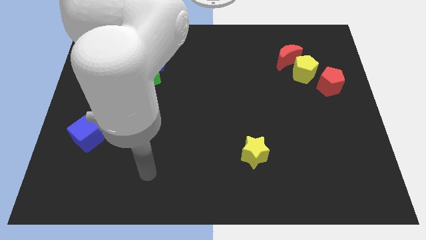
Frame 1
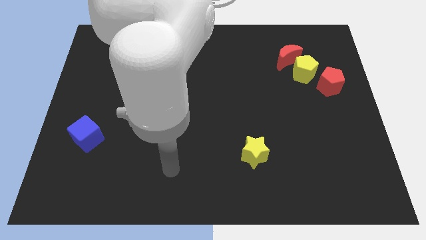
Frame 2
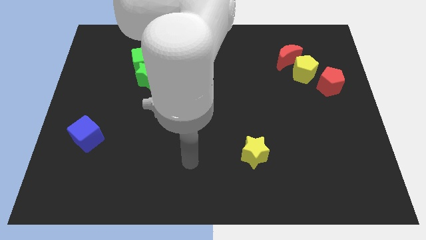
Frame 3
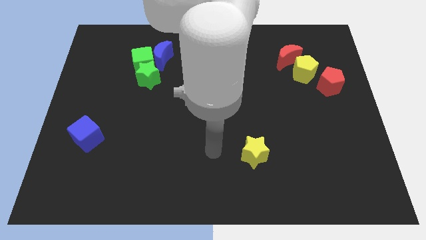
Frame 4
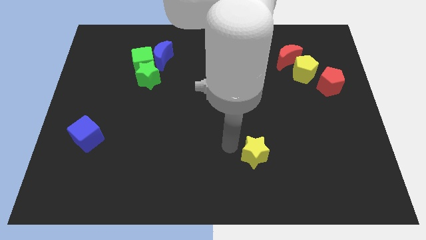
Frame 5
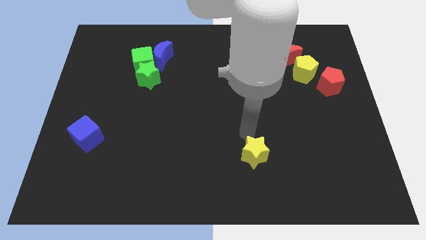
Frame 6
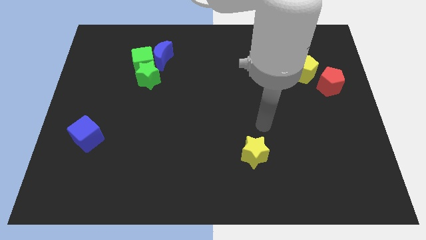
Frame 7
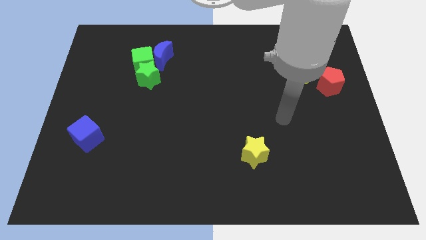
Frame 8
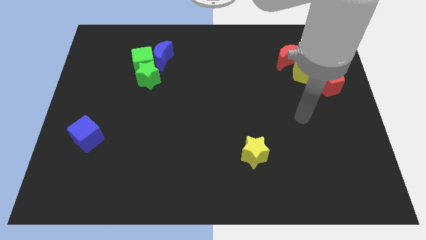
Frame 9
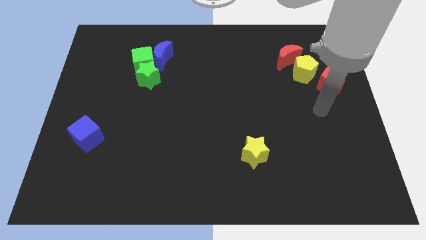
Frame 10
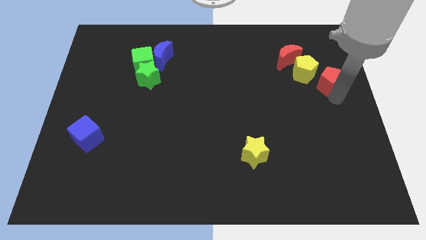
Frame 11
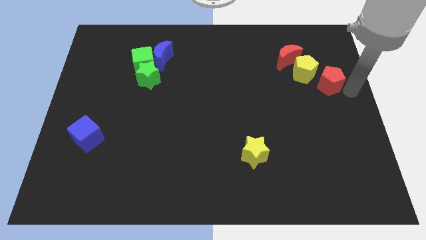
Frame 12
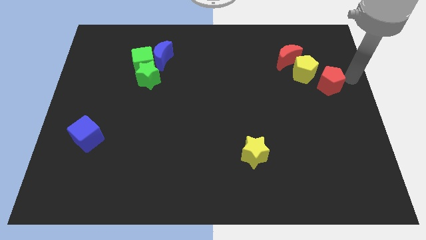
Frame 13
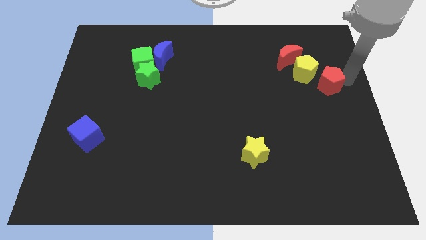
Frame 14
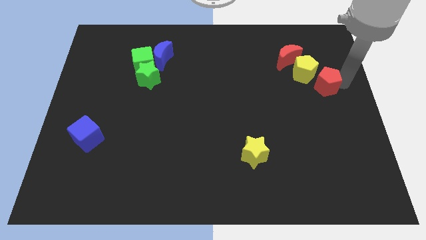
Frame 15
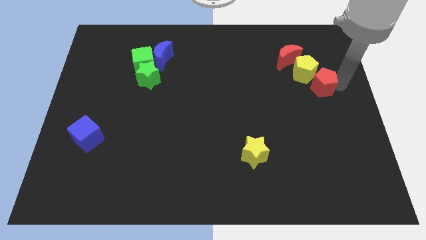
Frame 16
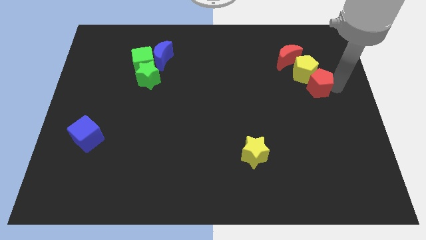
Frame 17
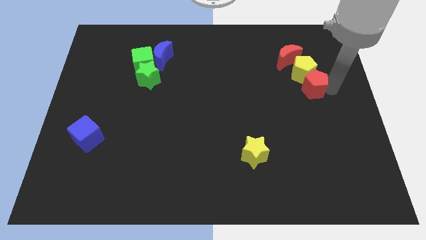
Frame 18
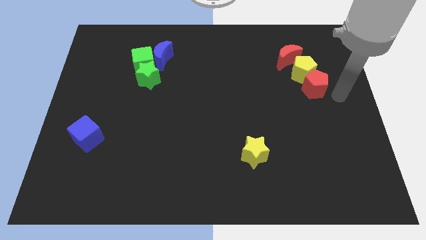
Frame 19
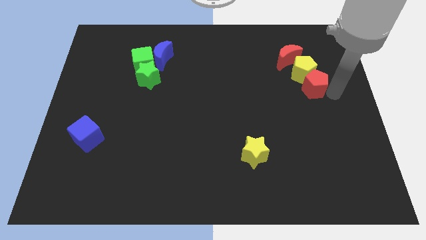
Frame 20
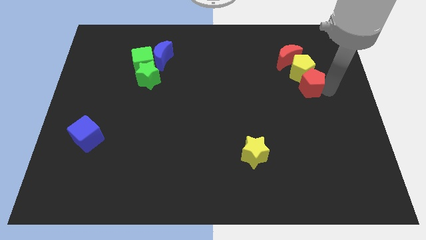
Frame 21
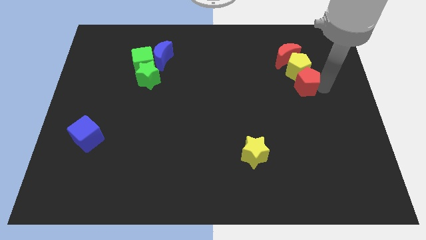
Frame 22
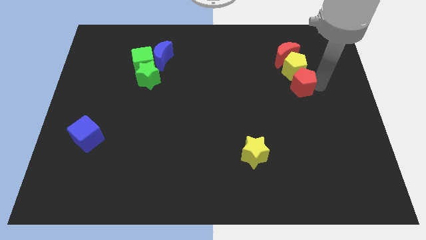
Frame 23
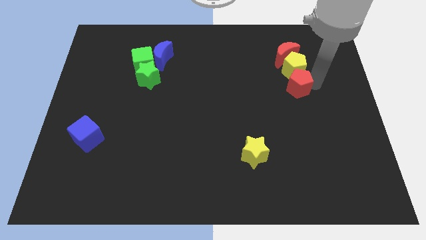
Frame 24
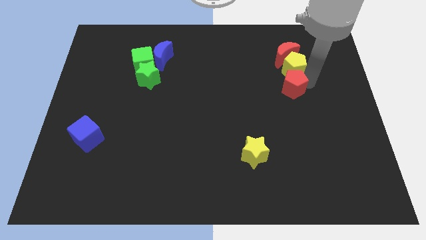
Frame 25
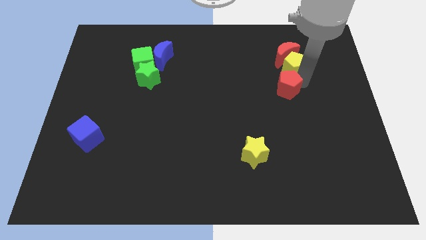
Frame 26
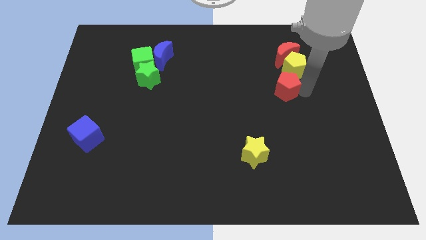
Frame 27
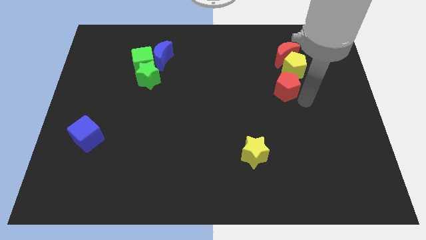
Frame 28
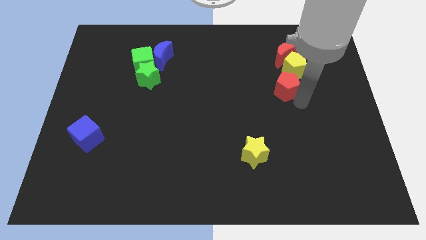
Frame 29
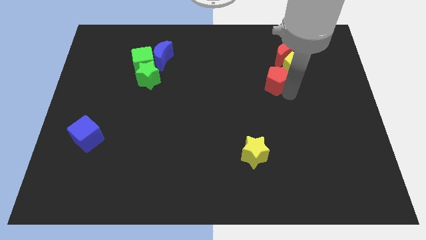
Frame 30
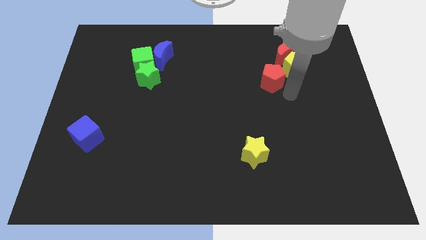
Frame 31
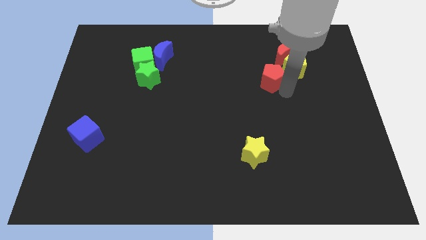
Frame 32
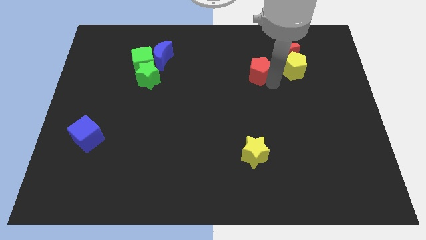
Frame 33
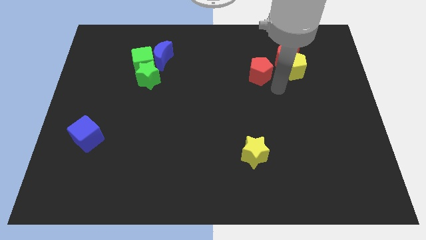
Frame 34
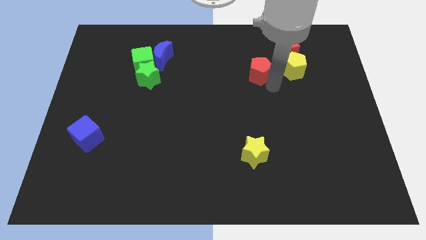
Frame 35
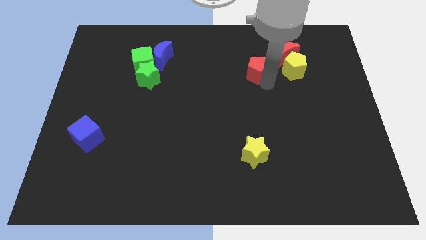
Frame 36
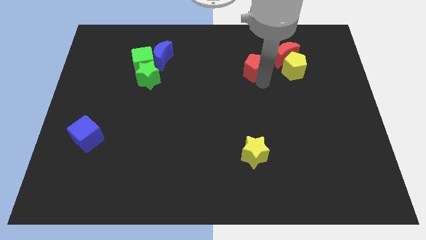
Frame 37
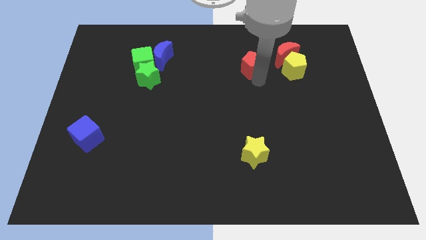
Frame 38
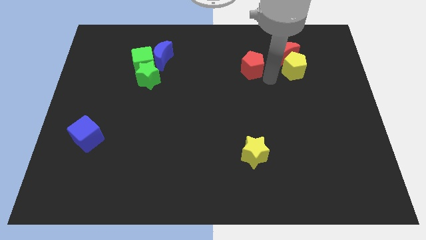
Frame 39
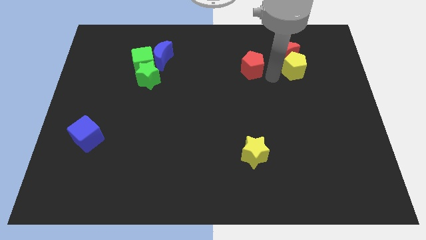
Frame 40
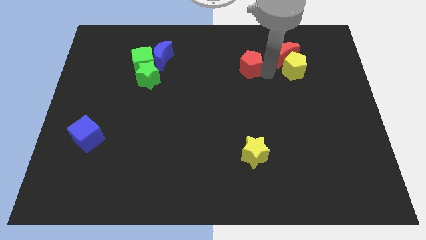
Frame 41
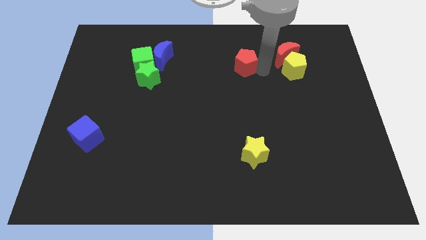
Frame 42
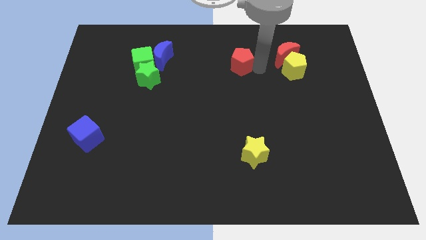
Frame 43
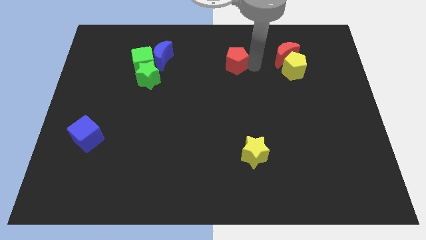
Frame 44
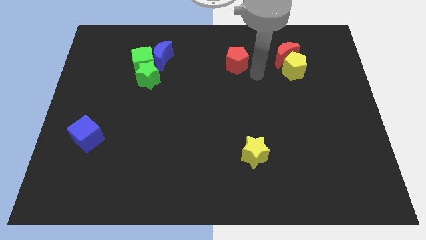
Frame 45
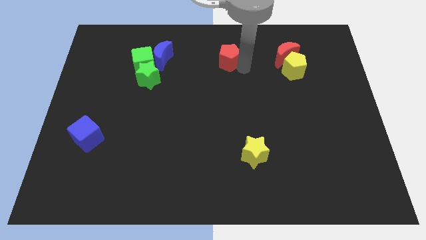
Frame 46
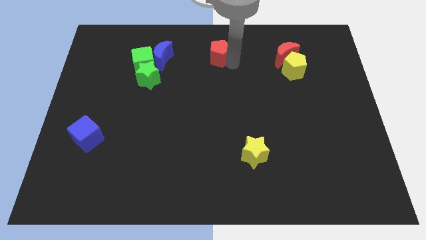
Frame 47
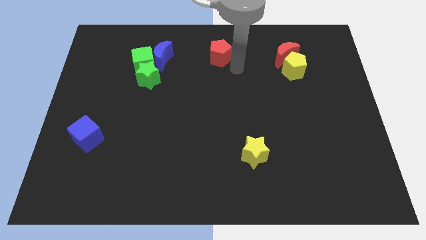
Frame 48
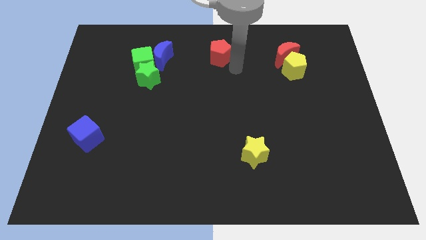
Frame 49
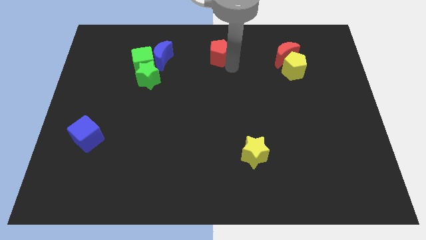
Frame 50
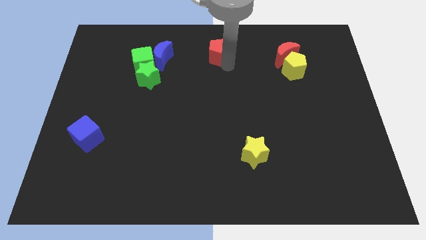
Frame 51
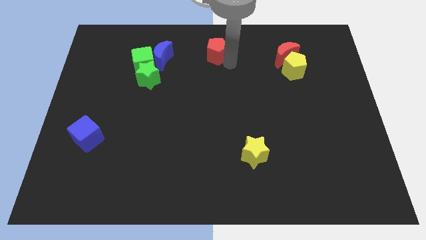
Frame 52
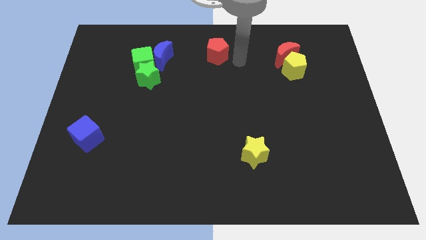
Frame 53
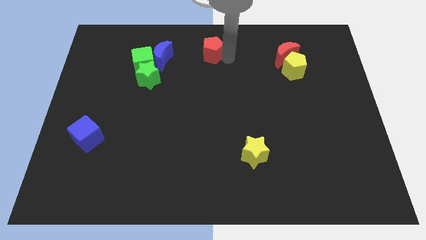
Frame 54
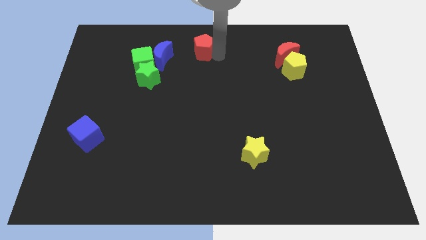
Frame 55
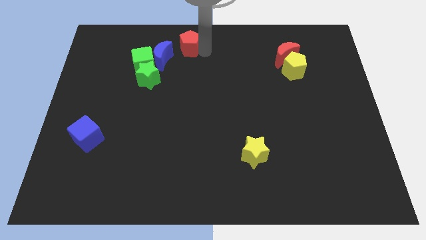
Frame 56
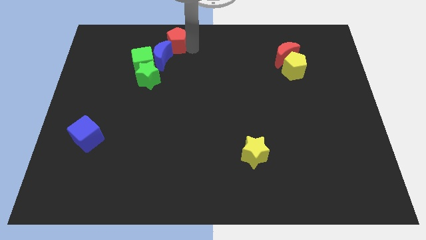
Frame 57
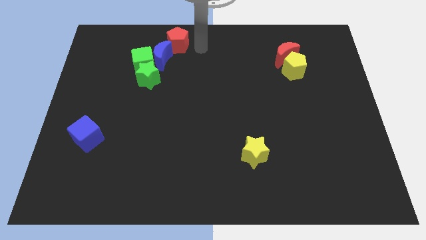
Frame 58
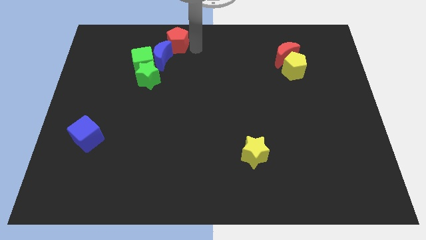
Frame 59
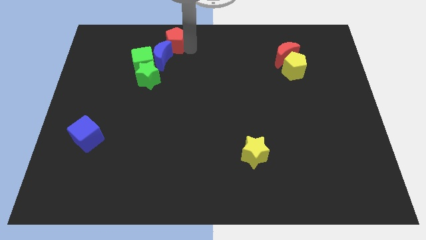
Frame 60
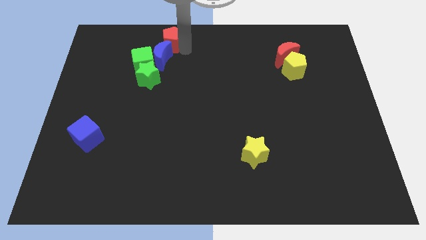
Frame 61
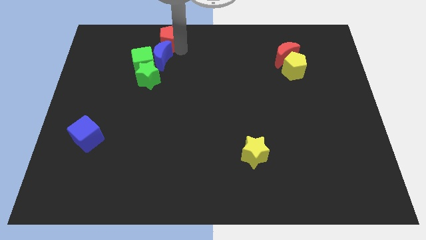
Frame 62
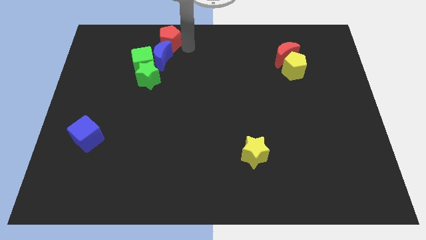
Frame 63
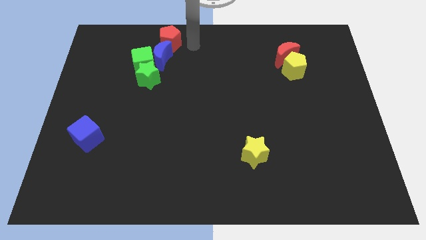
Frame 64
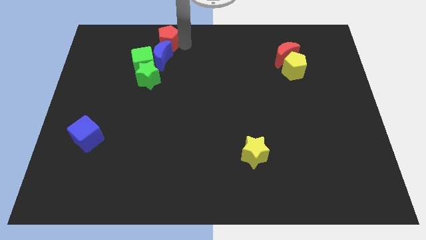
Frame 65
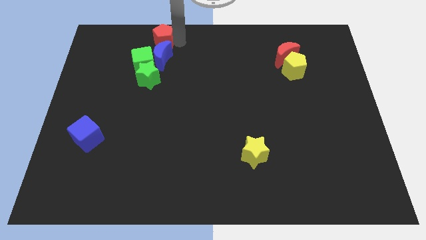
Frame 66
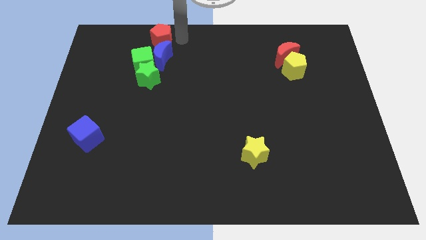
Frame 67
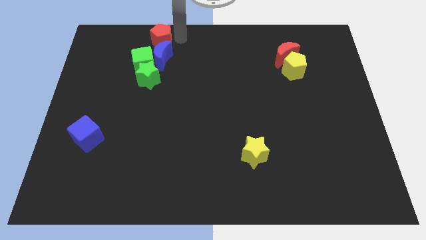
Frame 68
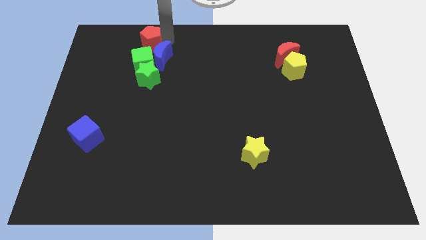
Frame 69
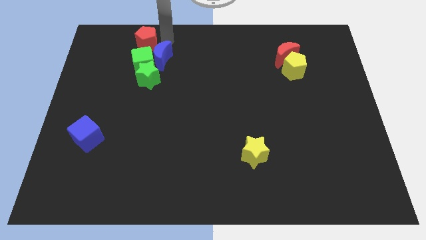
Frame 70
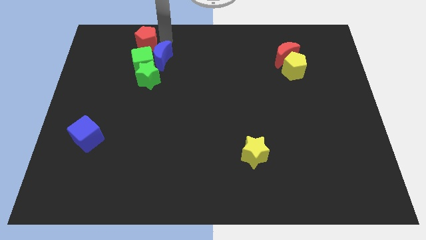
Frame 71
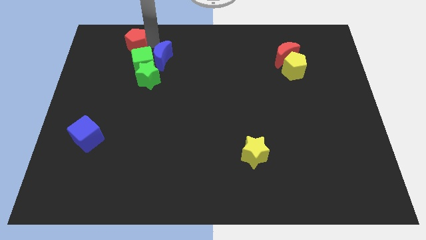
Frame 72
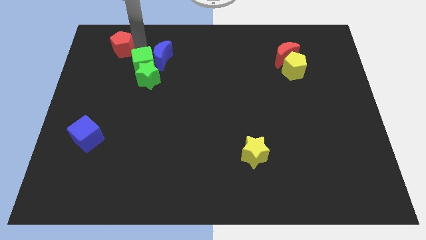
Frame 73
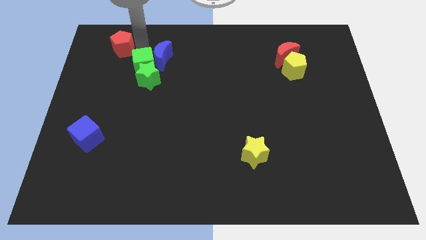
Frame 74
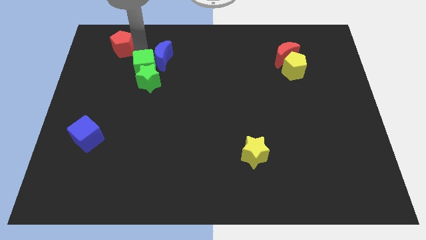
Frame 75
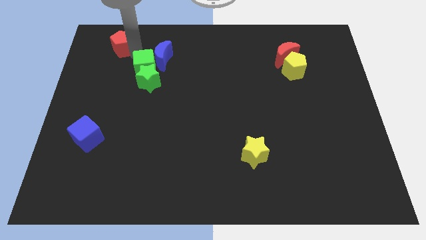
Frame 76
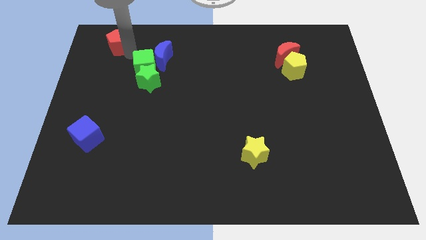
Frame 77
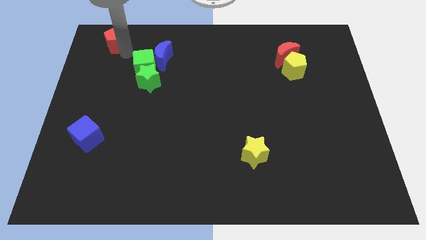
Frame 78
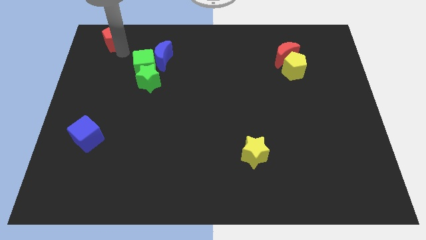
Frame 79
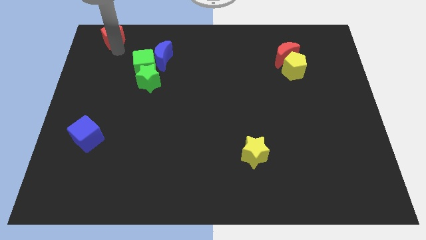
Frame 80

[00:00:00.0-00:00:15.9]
push the red pentagon to the upper left corner
